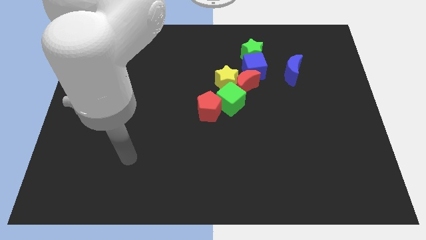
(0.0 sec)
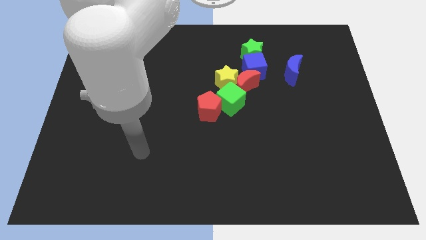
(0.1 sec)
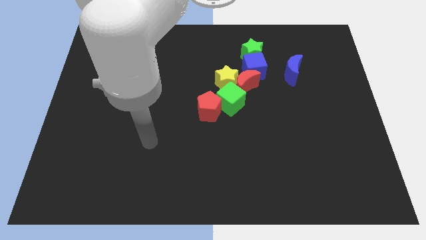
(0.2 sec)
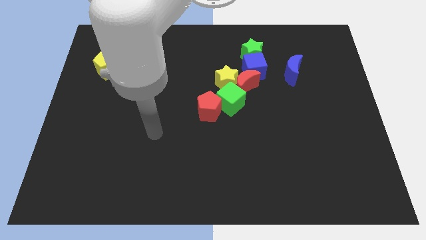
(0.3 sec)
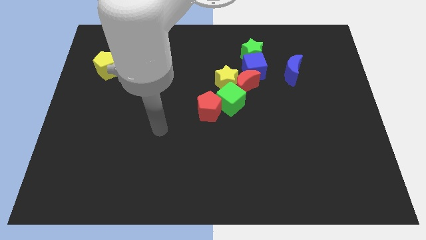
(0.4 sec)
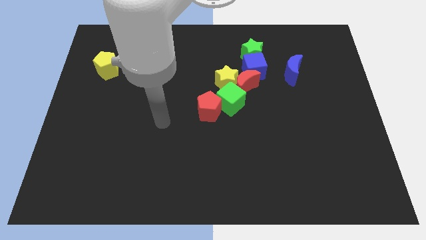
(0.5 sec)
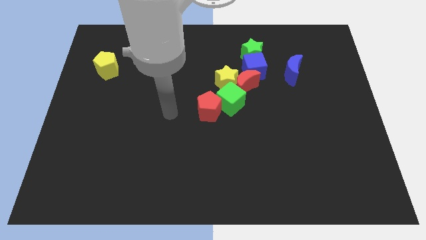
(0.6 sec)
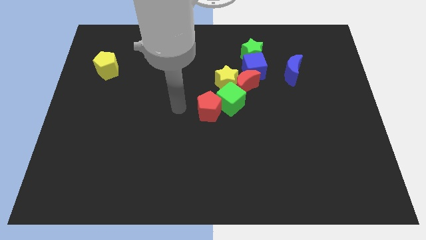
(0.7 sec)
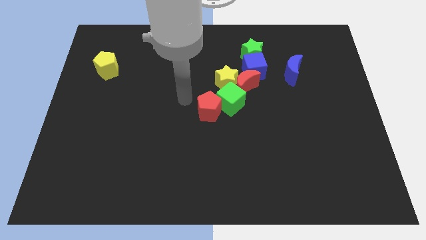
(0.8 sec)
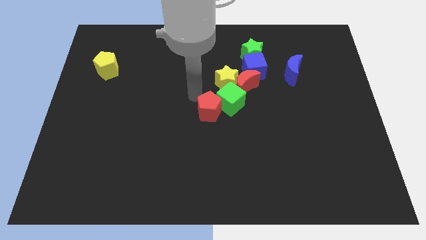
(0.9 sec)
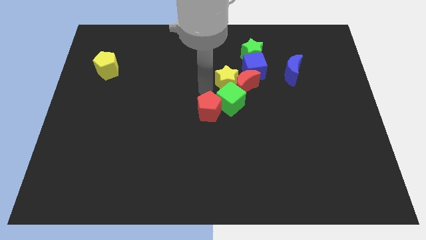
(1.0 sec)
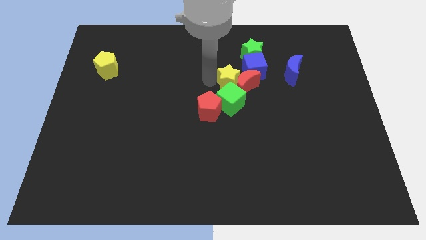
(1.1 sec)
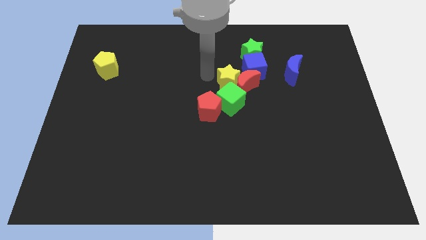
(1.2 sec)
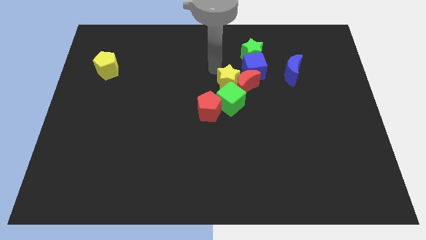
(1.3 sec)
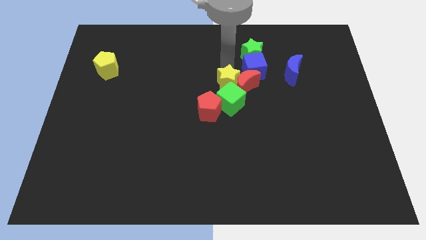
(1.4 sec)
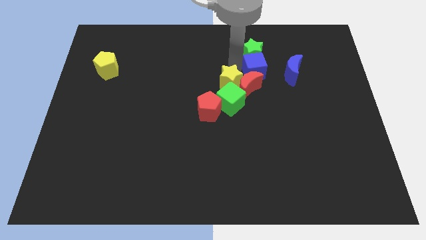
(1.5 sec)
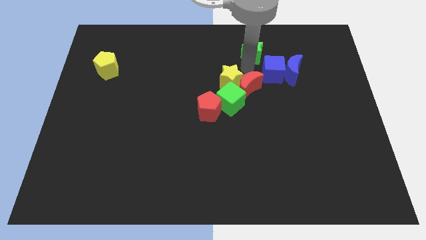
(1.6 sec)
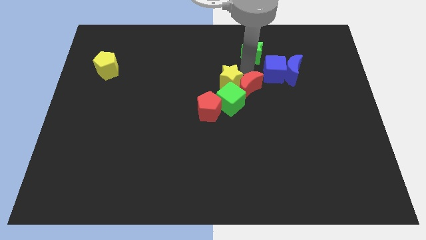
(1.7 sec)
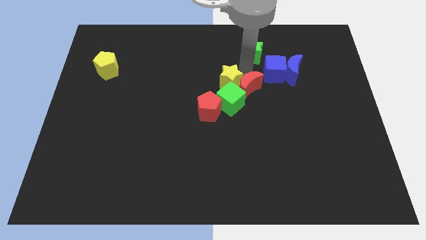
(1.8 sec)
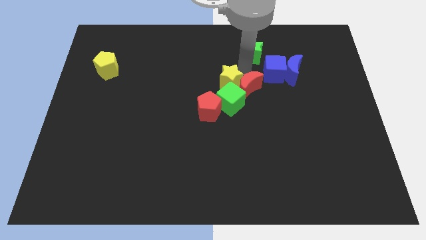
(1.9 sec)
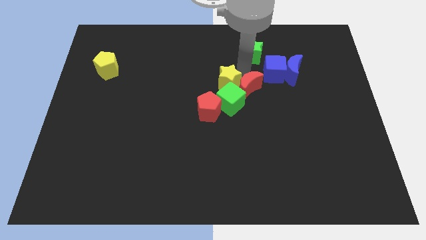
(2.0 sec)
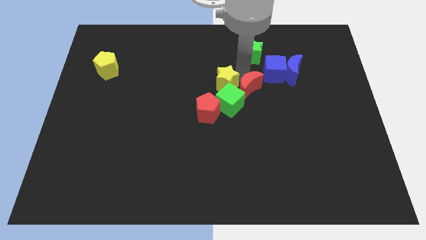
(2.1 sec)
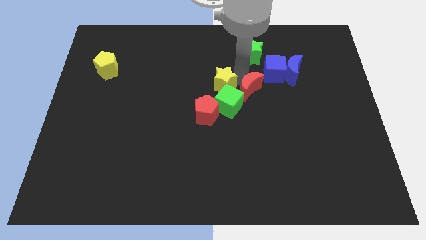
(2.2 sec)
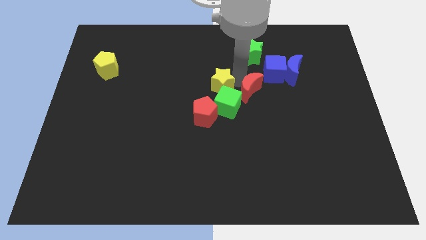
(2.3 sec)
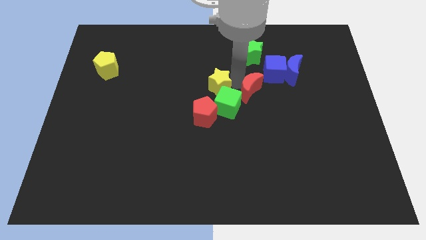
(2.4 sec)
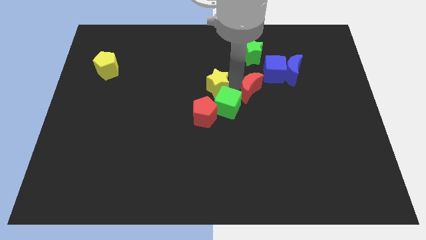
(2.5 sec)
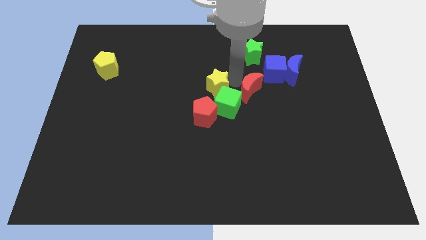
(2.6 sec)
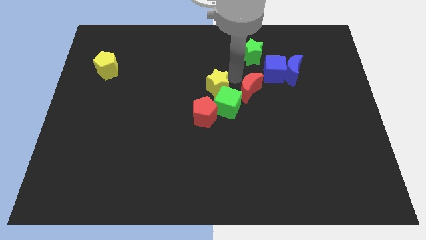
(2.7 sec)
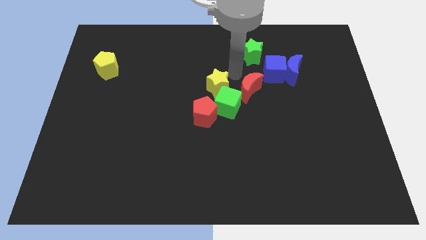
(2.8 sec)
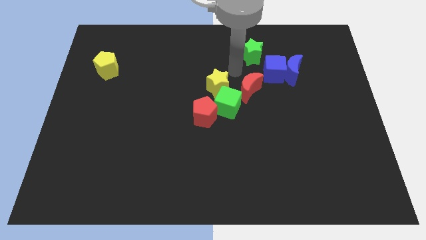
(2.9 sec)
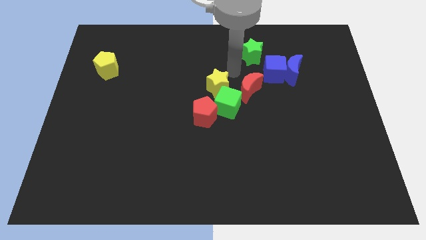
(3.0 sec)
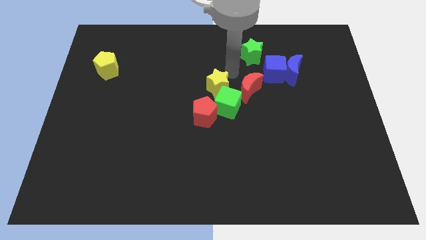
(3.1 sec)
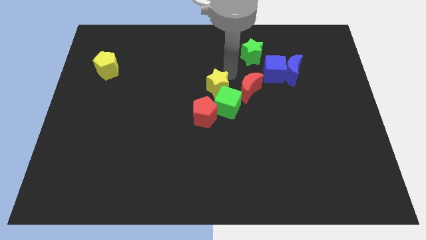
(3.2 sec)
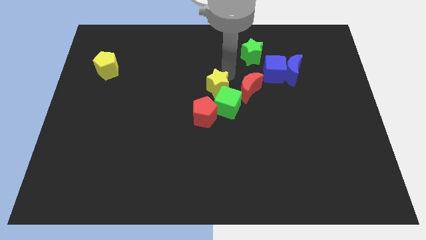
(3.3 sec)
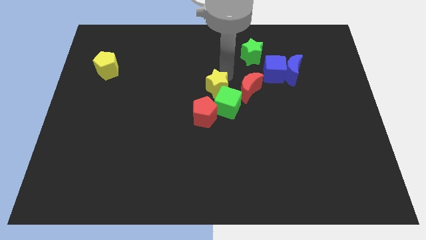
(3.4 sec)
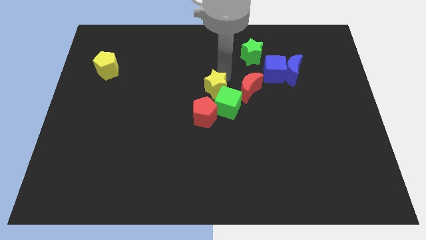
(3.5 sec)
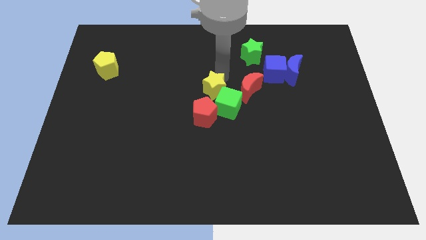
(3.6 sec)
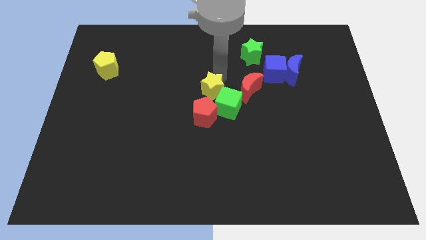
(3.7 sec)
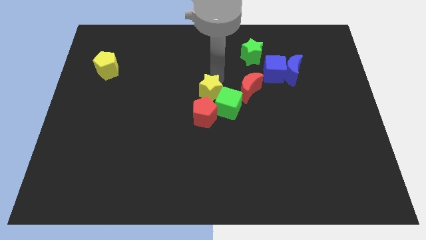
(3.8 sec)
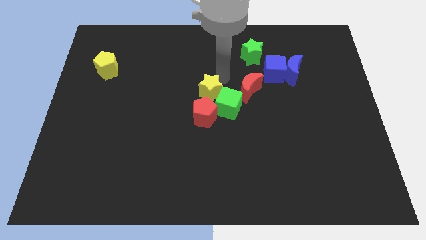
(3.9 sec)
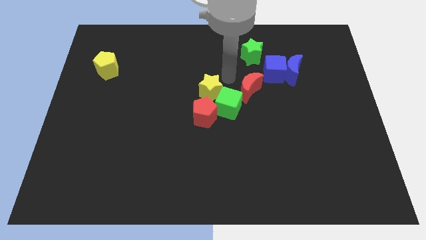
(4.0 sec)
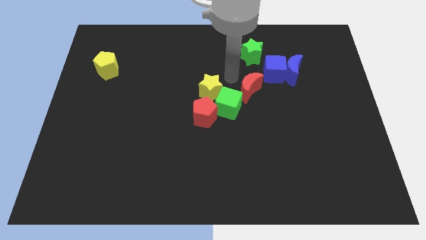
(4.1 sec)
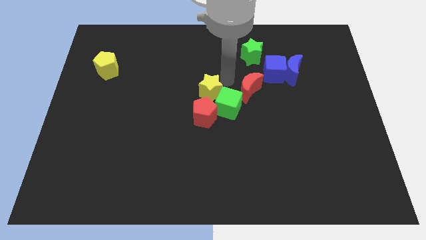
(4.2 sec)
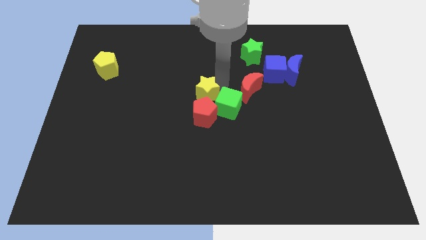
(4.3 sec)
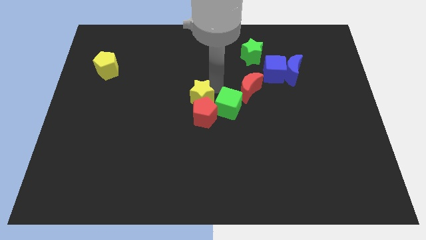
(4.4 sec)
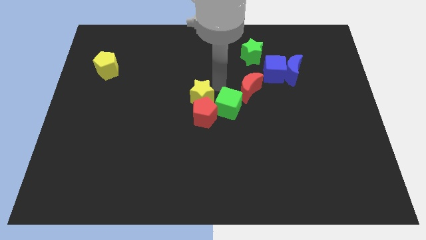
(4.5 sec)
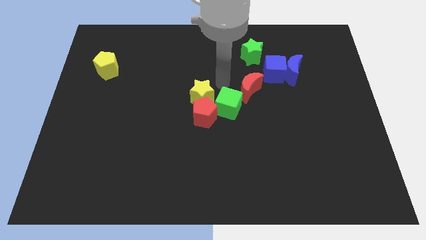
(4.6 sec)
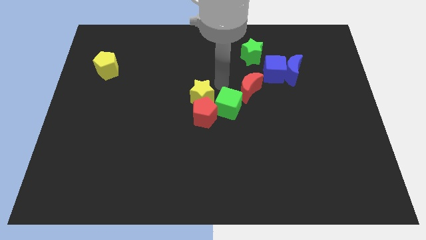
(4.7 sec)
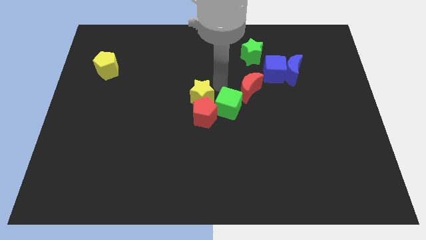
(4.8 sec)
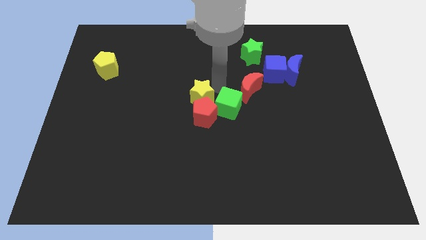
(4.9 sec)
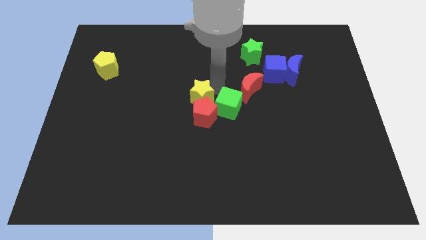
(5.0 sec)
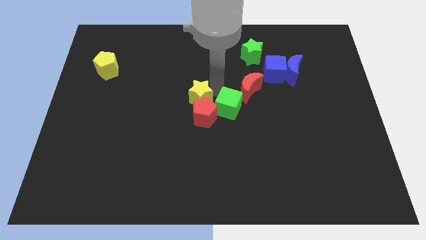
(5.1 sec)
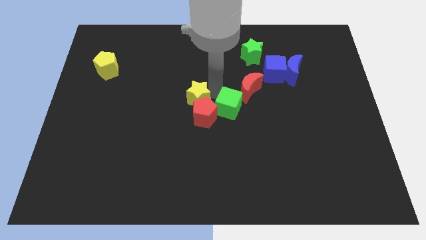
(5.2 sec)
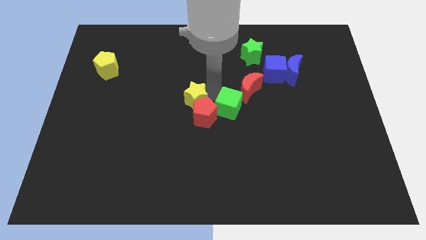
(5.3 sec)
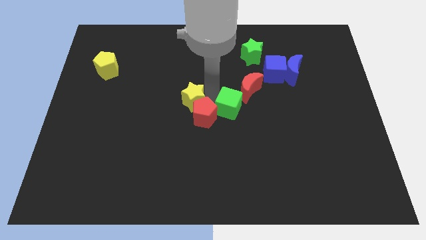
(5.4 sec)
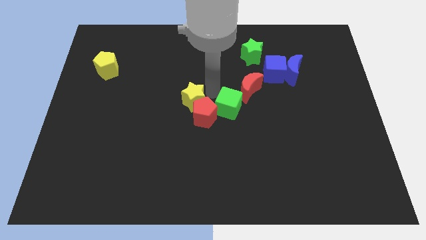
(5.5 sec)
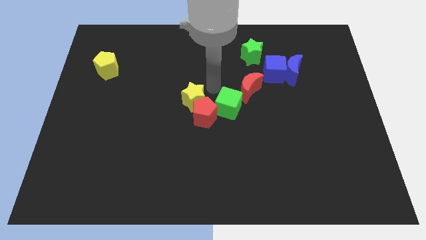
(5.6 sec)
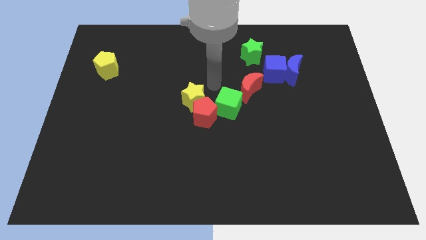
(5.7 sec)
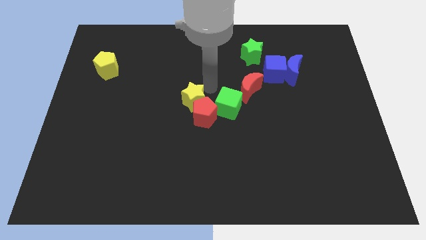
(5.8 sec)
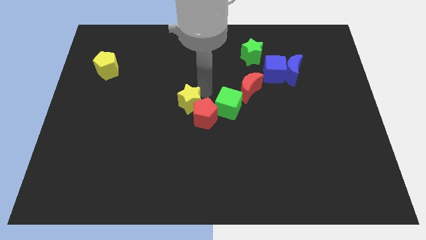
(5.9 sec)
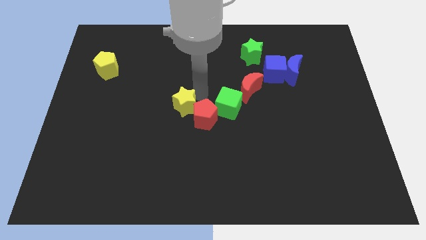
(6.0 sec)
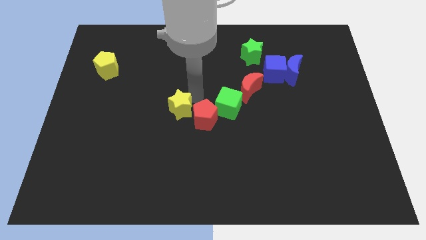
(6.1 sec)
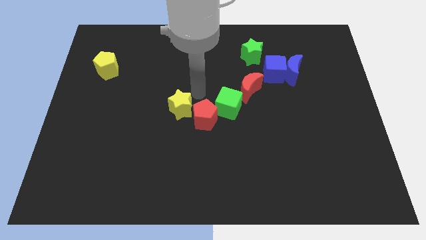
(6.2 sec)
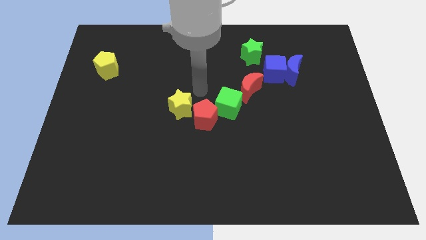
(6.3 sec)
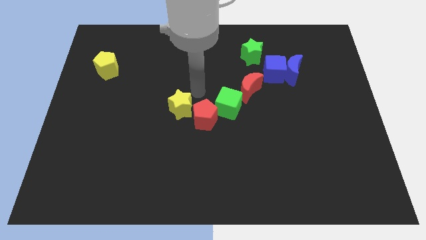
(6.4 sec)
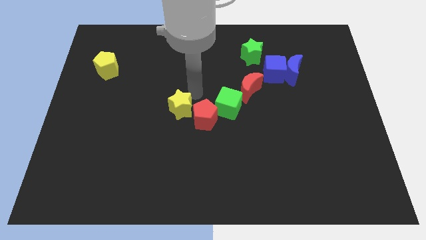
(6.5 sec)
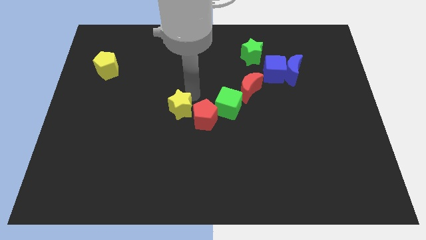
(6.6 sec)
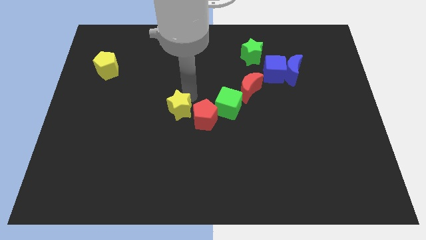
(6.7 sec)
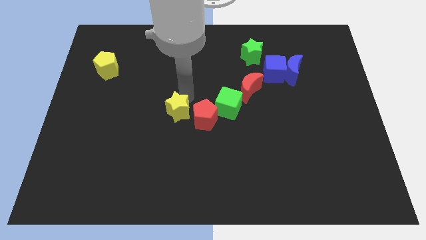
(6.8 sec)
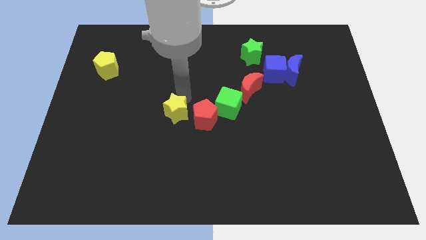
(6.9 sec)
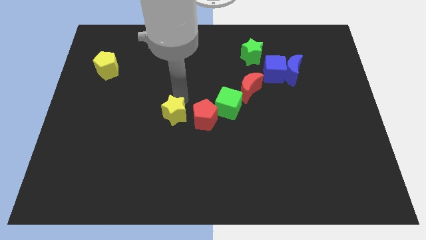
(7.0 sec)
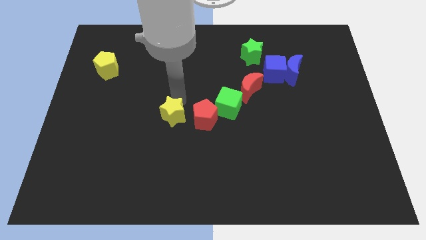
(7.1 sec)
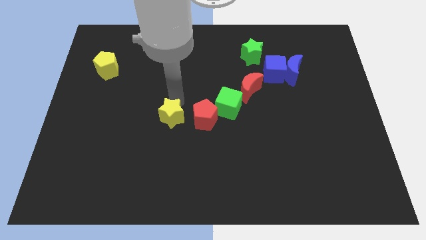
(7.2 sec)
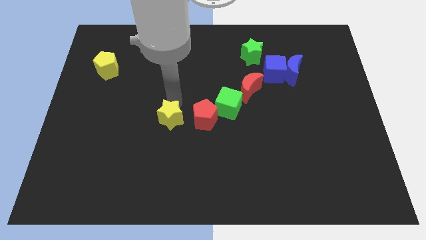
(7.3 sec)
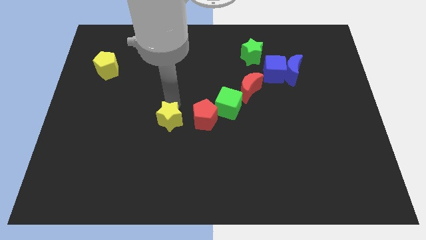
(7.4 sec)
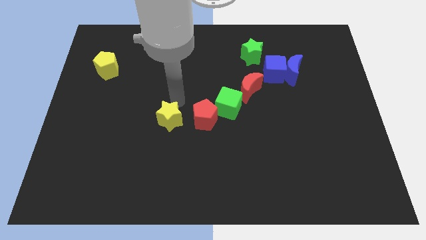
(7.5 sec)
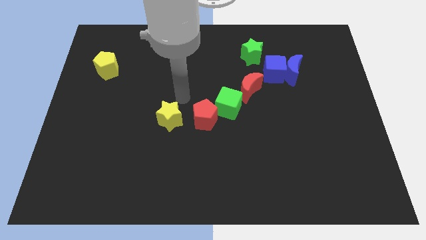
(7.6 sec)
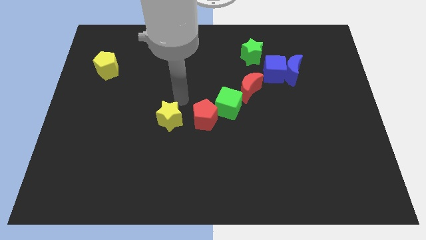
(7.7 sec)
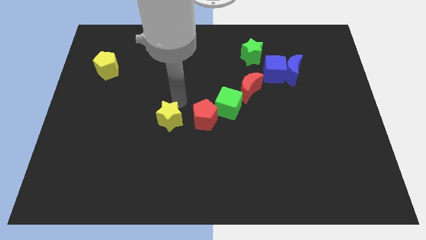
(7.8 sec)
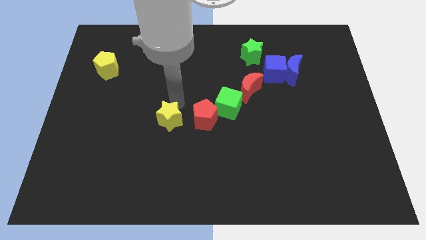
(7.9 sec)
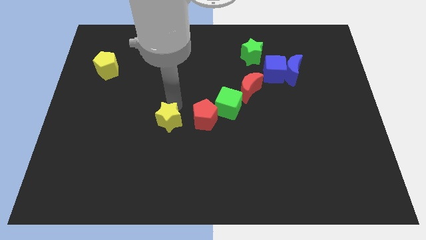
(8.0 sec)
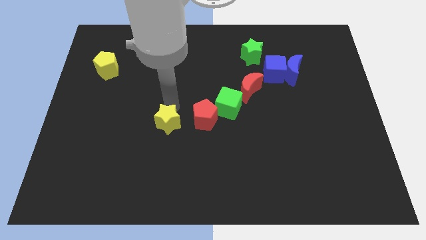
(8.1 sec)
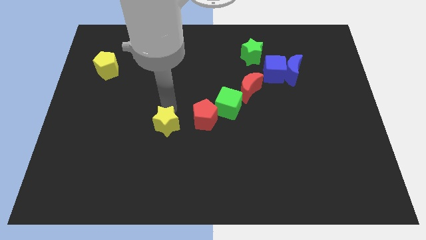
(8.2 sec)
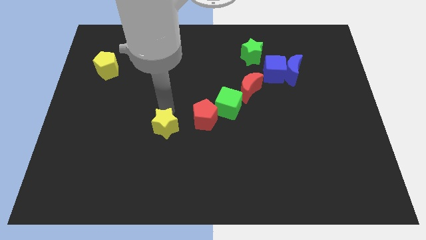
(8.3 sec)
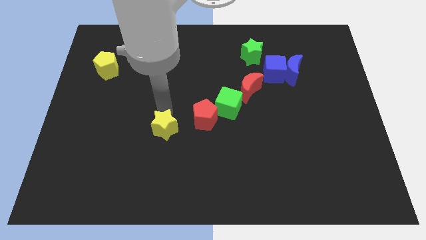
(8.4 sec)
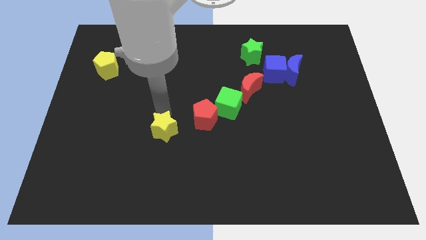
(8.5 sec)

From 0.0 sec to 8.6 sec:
slide the yellow star down and left
